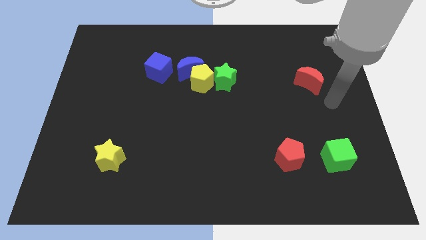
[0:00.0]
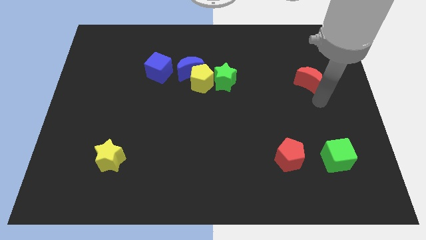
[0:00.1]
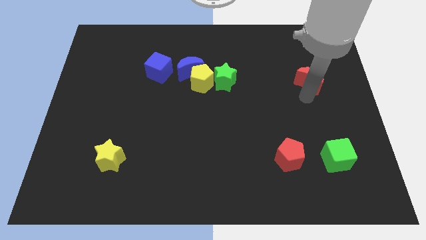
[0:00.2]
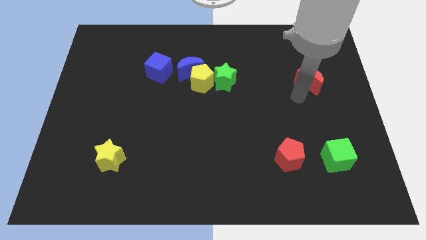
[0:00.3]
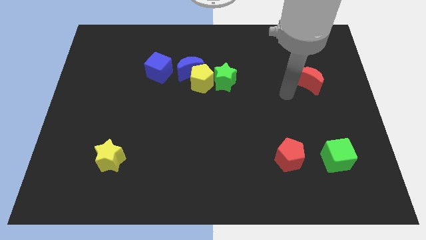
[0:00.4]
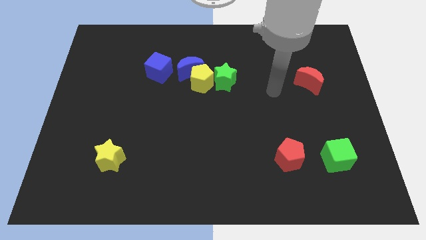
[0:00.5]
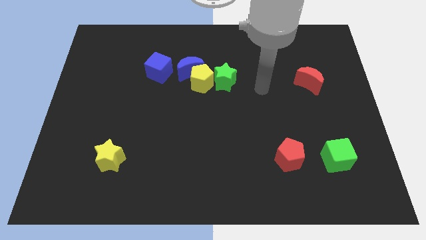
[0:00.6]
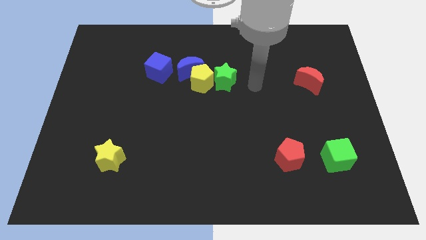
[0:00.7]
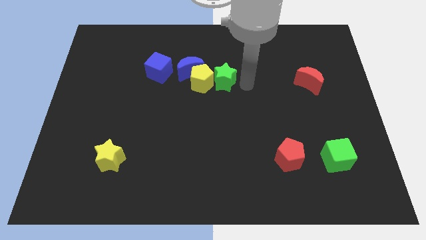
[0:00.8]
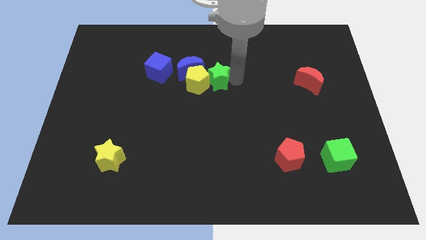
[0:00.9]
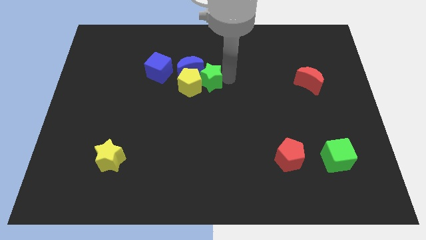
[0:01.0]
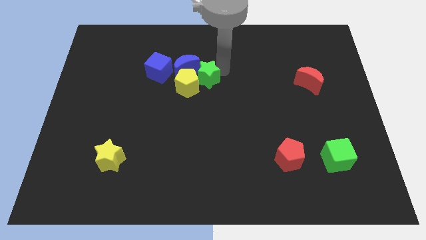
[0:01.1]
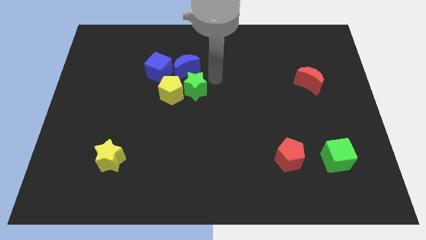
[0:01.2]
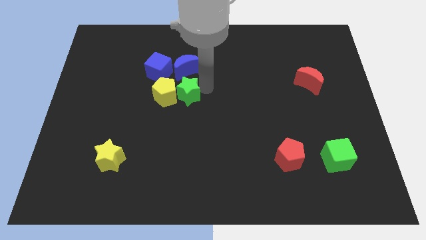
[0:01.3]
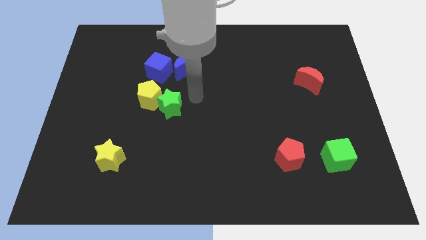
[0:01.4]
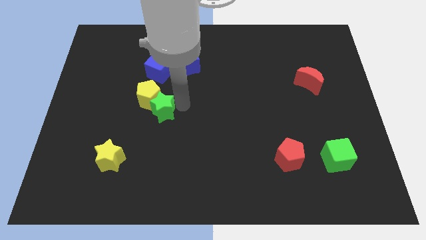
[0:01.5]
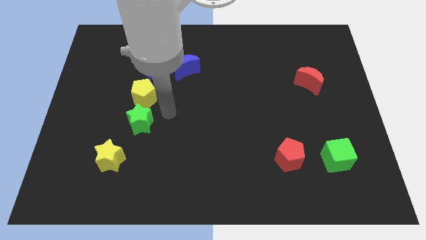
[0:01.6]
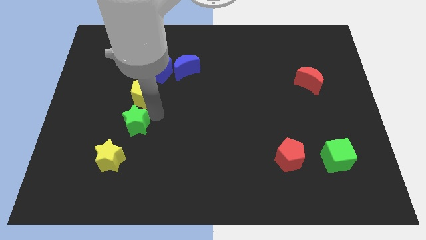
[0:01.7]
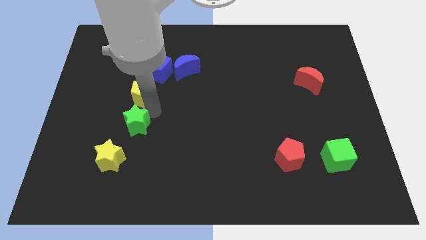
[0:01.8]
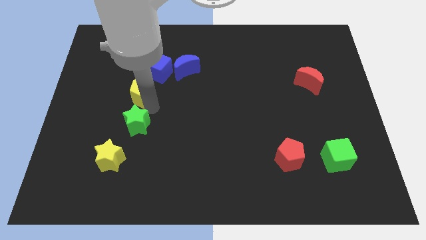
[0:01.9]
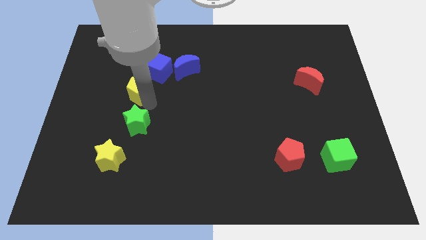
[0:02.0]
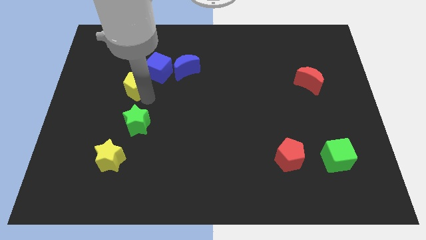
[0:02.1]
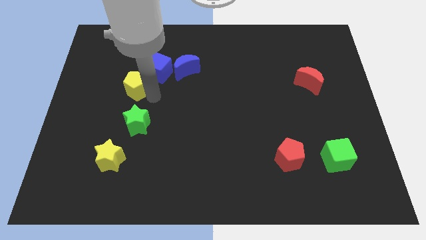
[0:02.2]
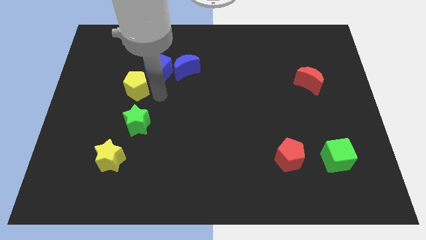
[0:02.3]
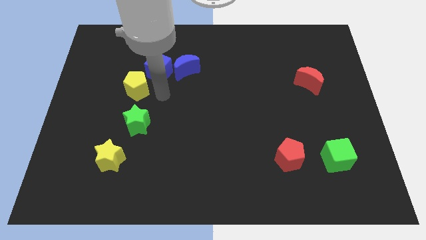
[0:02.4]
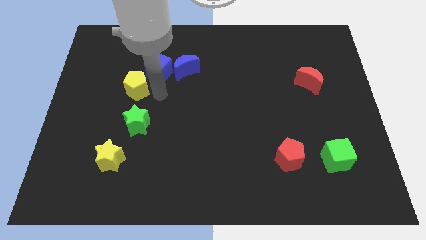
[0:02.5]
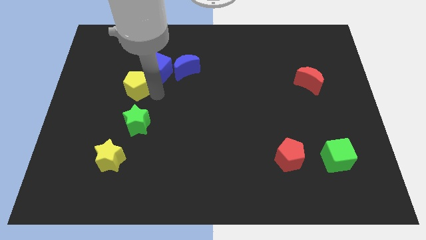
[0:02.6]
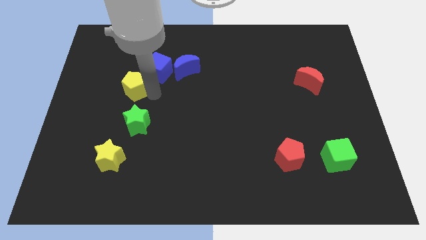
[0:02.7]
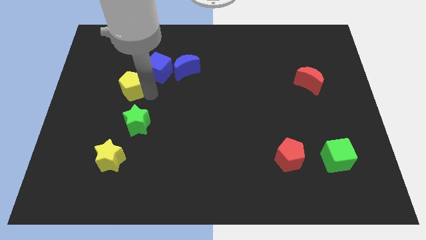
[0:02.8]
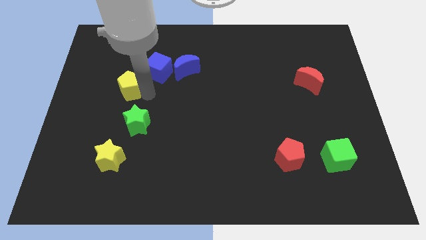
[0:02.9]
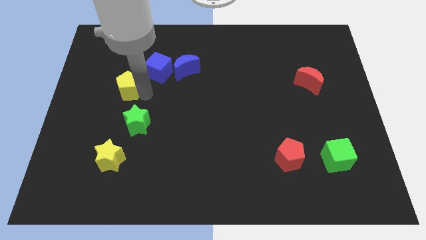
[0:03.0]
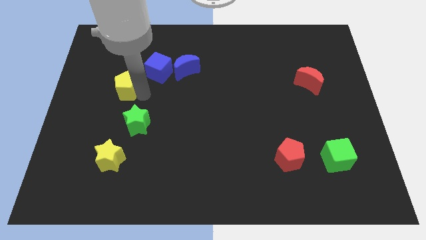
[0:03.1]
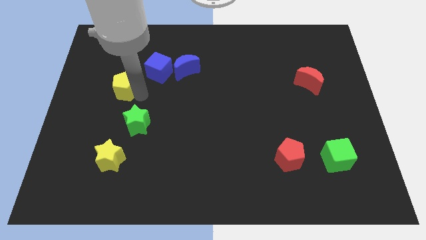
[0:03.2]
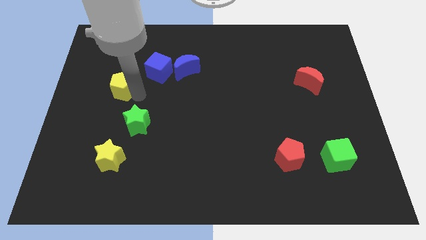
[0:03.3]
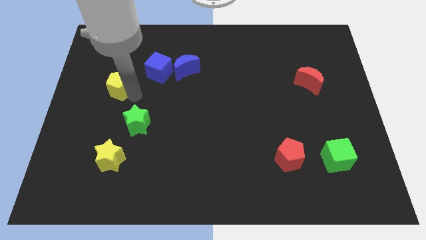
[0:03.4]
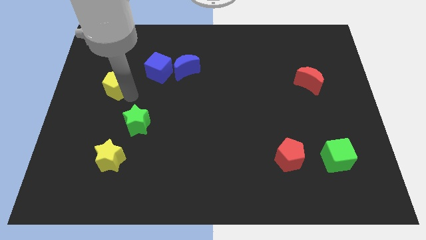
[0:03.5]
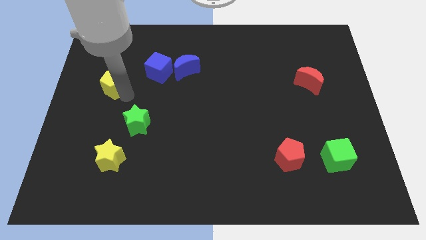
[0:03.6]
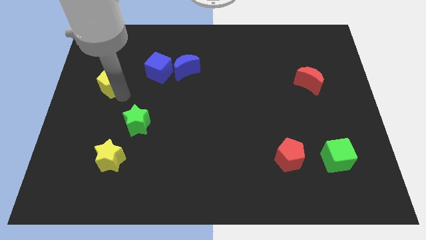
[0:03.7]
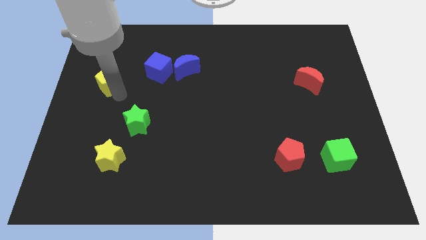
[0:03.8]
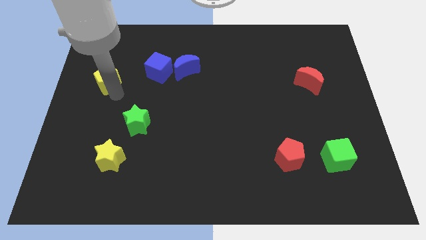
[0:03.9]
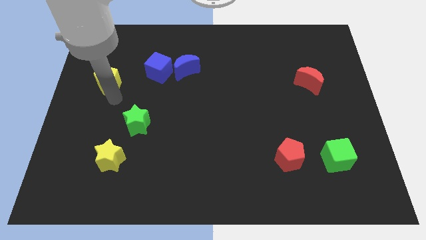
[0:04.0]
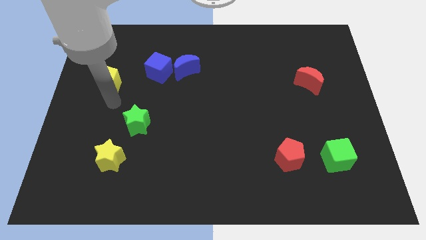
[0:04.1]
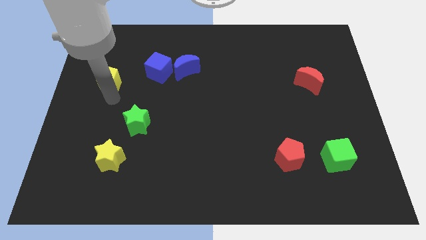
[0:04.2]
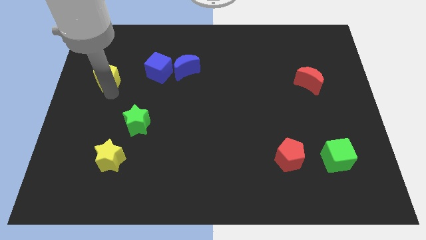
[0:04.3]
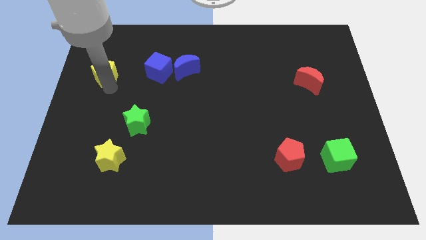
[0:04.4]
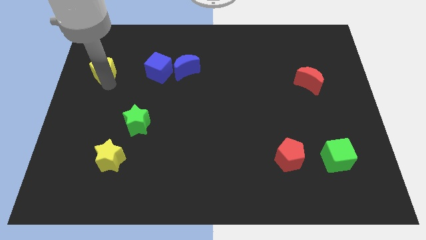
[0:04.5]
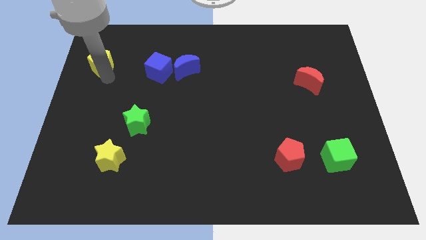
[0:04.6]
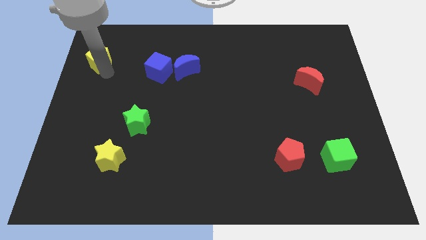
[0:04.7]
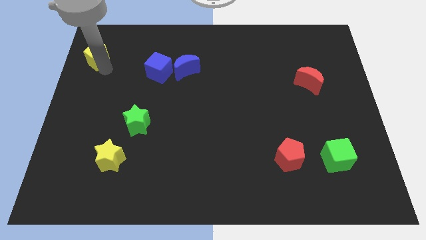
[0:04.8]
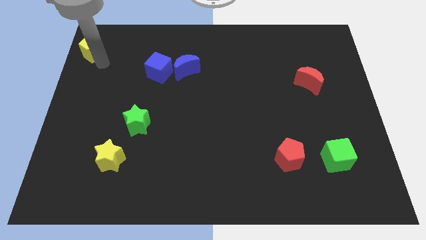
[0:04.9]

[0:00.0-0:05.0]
move the yellow pentagon to the top left of the board

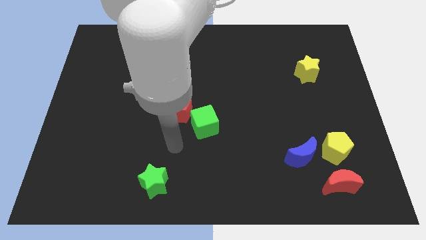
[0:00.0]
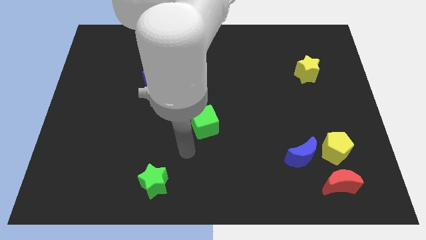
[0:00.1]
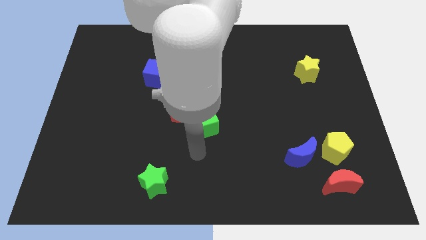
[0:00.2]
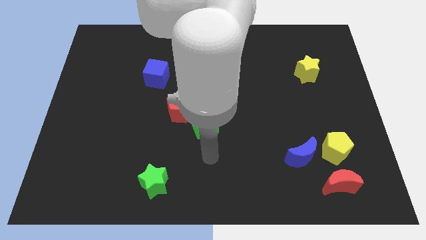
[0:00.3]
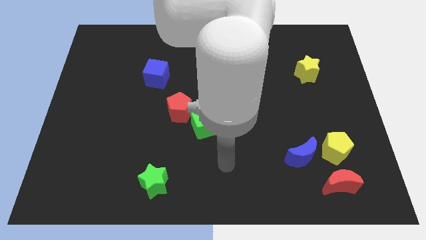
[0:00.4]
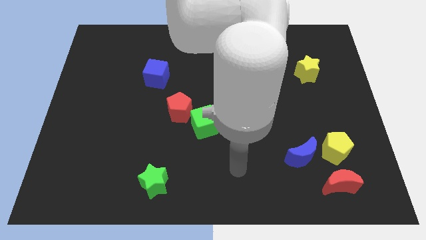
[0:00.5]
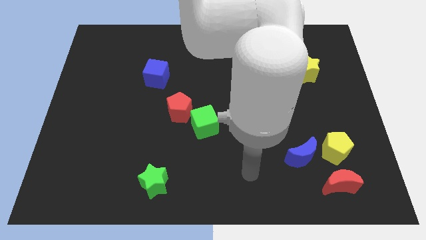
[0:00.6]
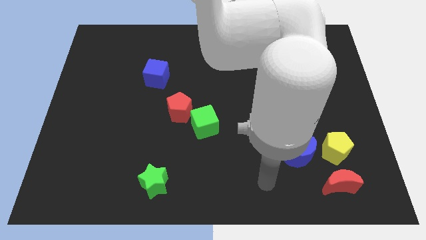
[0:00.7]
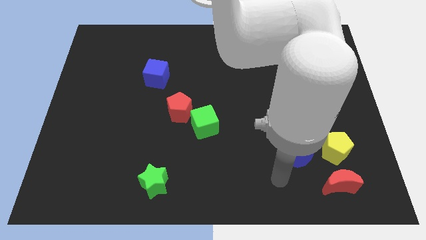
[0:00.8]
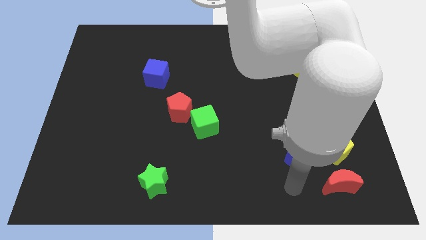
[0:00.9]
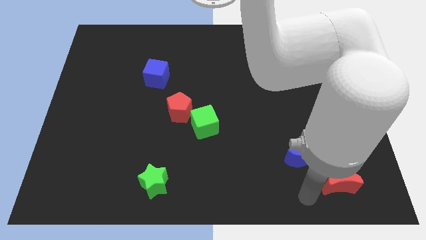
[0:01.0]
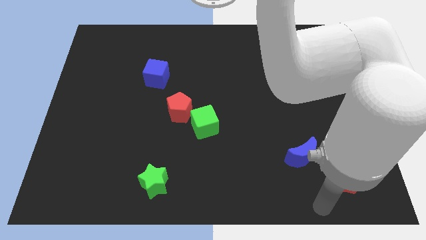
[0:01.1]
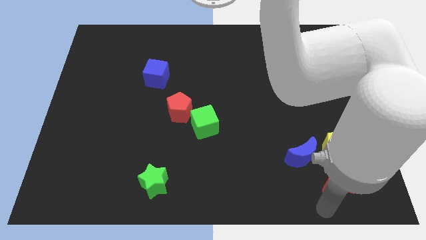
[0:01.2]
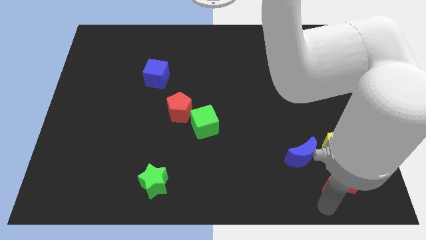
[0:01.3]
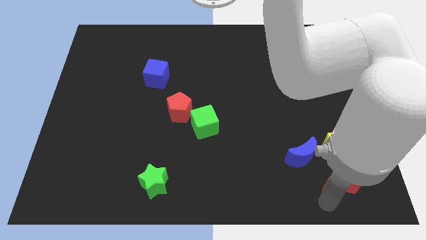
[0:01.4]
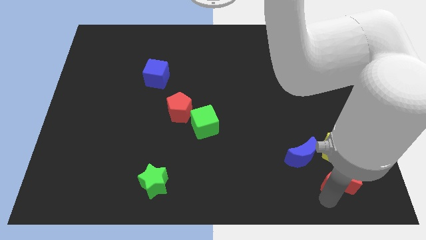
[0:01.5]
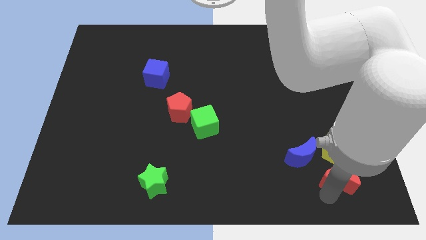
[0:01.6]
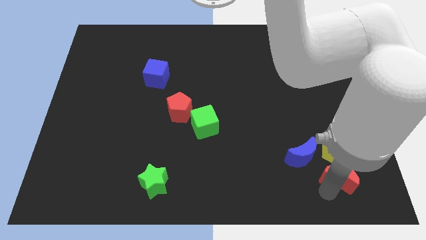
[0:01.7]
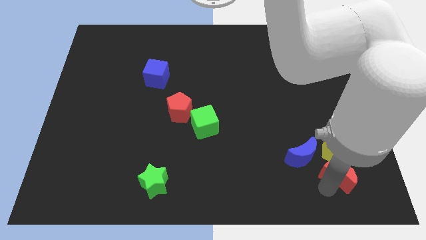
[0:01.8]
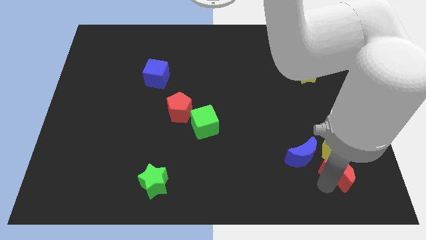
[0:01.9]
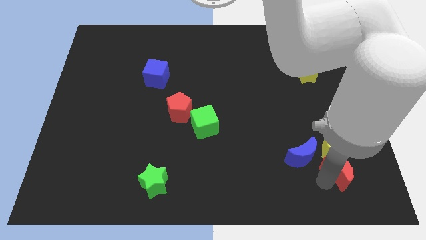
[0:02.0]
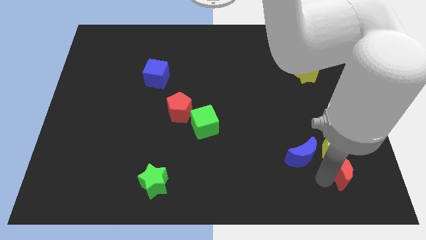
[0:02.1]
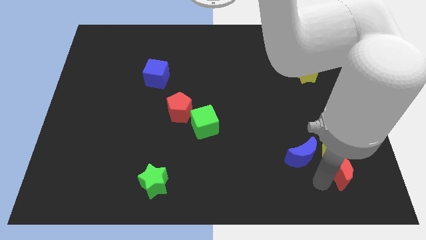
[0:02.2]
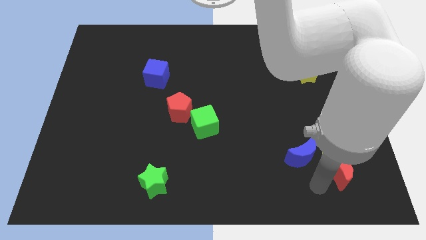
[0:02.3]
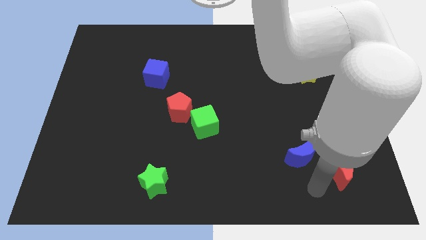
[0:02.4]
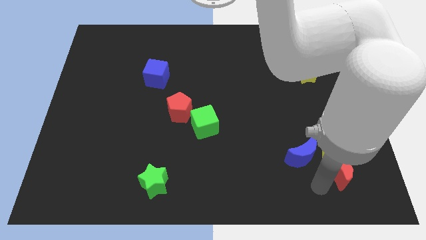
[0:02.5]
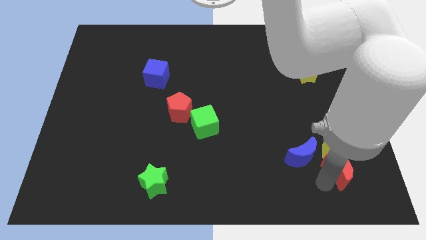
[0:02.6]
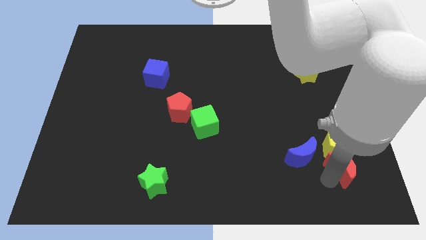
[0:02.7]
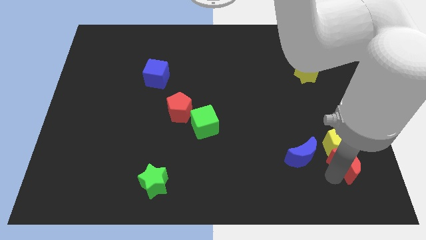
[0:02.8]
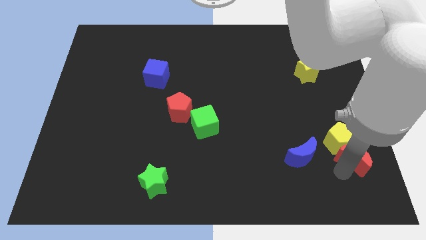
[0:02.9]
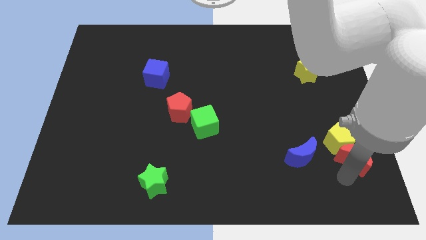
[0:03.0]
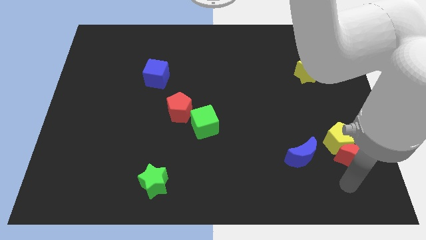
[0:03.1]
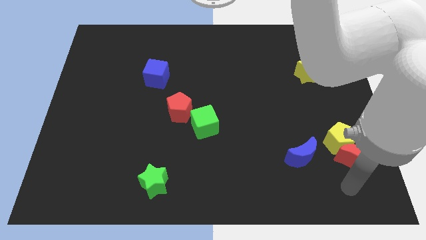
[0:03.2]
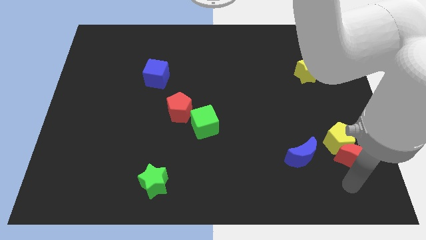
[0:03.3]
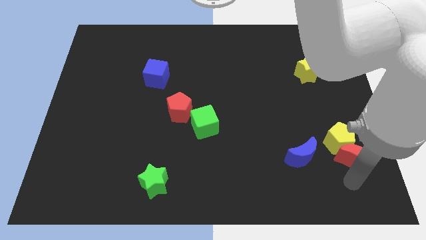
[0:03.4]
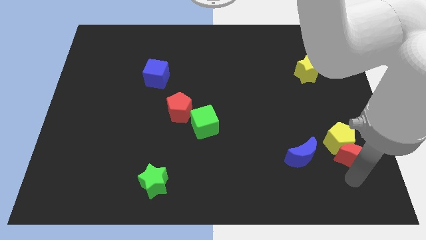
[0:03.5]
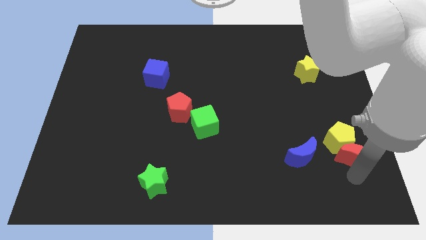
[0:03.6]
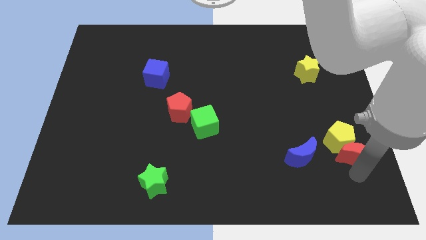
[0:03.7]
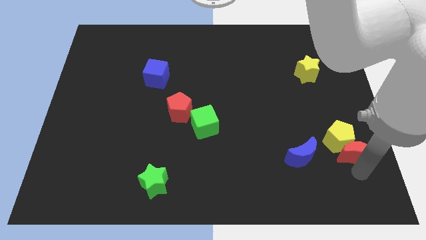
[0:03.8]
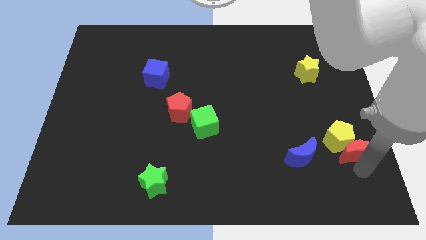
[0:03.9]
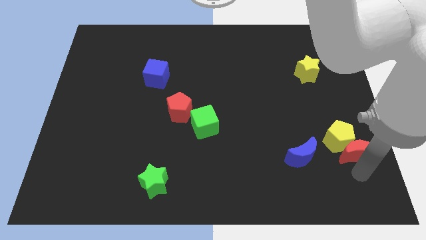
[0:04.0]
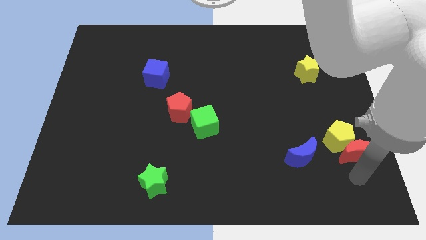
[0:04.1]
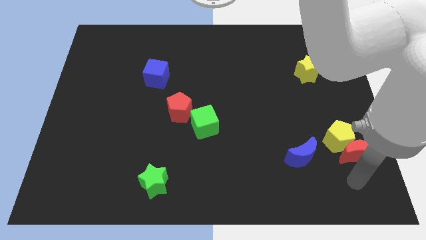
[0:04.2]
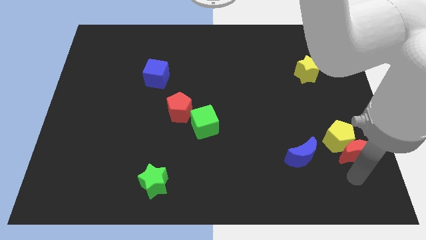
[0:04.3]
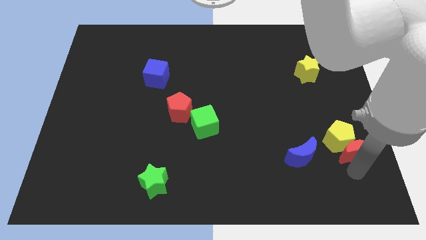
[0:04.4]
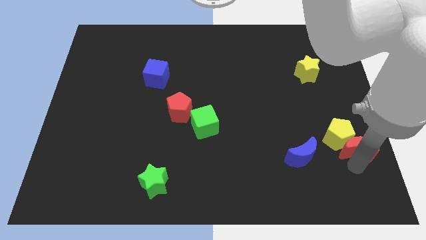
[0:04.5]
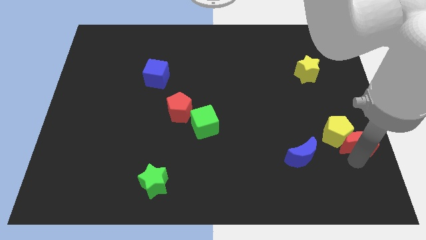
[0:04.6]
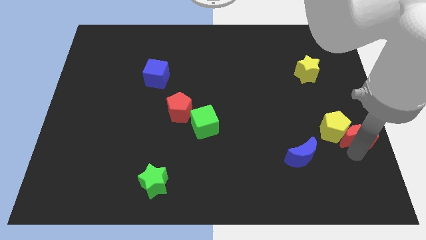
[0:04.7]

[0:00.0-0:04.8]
slide the red moon to the right side of the board
